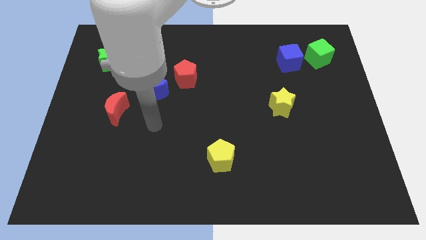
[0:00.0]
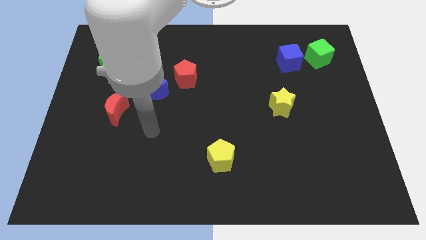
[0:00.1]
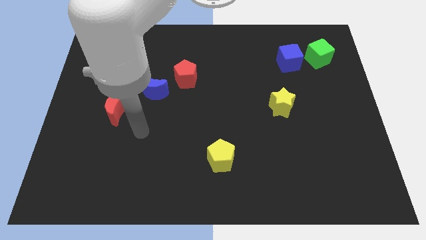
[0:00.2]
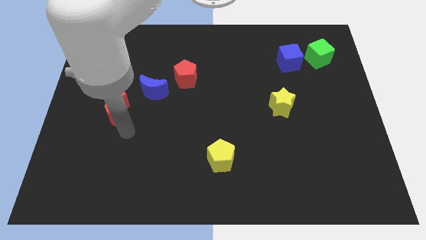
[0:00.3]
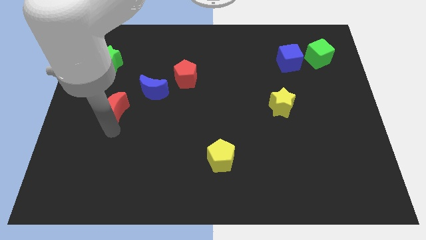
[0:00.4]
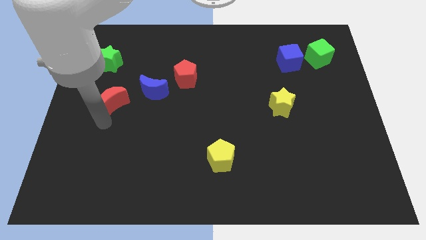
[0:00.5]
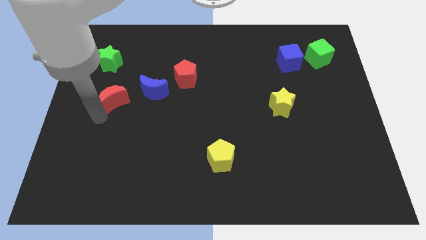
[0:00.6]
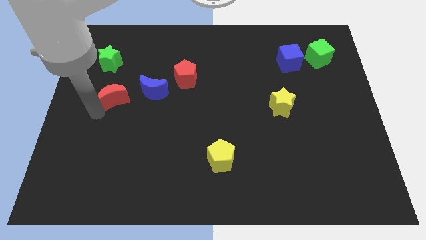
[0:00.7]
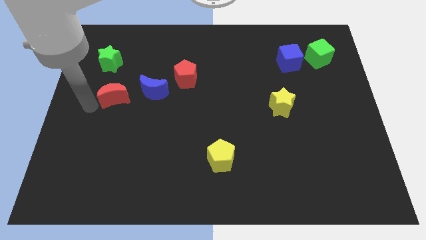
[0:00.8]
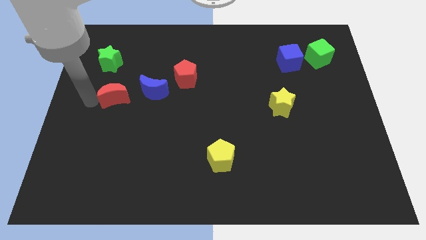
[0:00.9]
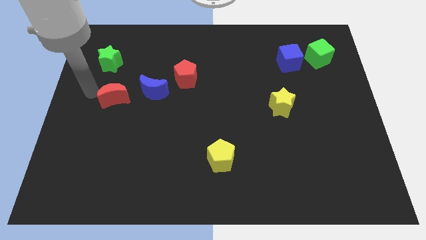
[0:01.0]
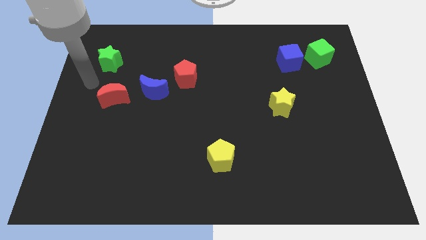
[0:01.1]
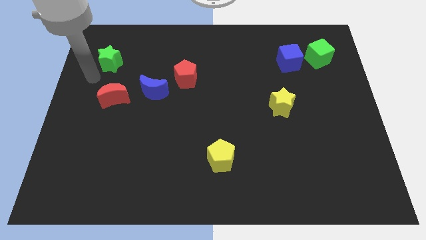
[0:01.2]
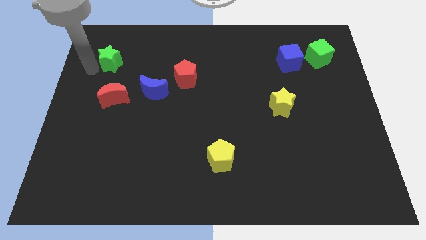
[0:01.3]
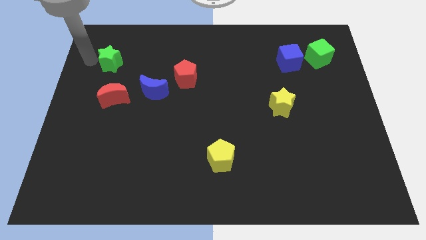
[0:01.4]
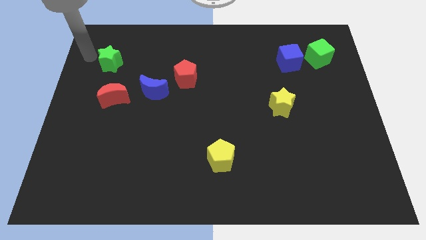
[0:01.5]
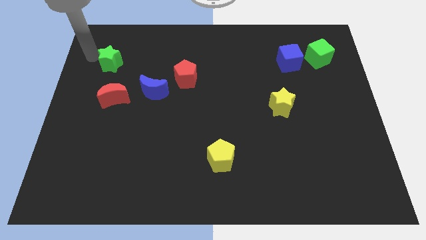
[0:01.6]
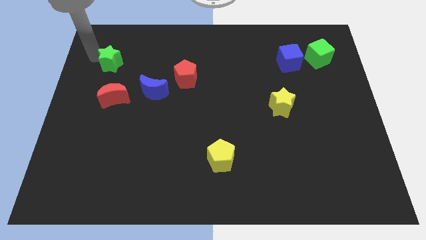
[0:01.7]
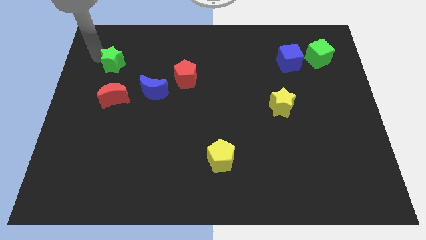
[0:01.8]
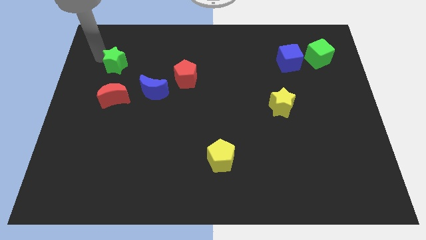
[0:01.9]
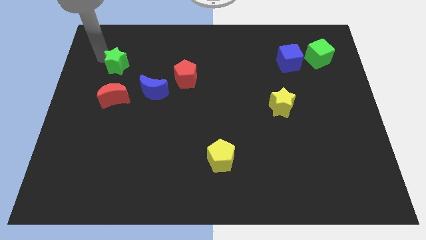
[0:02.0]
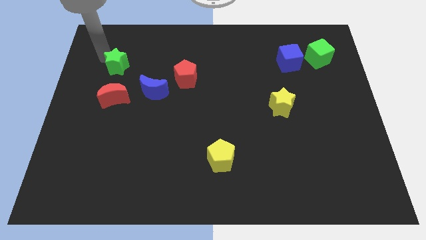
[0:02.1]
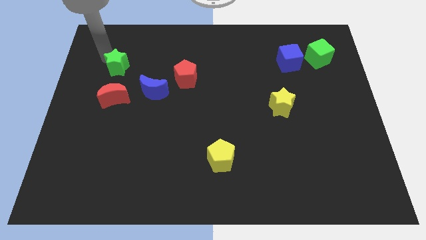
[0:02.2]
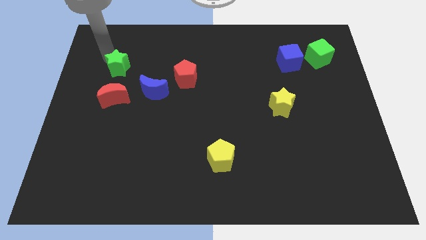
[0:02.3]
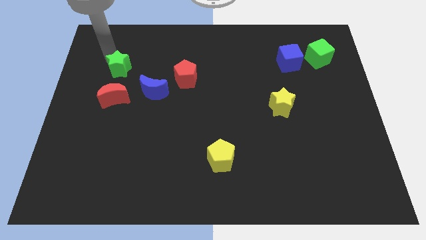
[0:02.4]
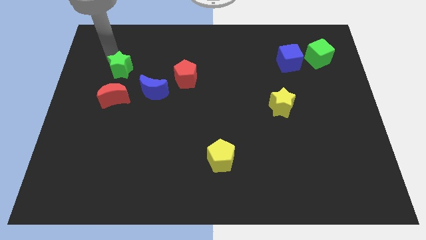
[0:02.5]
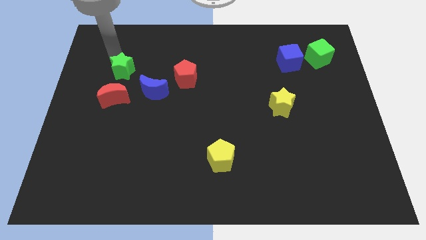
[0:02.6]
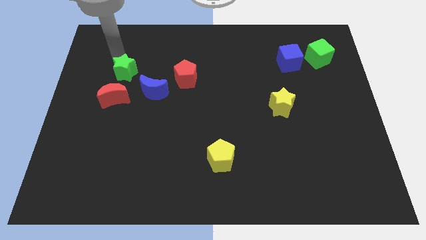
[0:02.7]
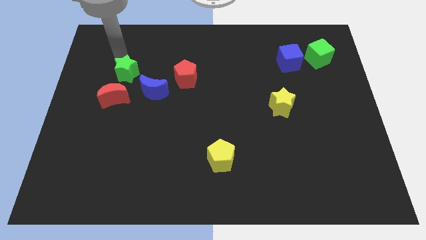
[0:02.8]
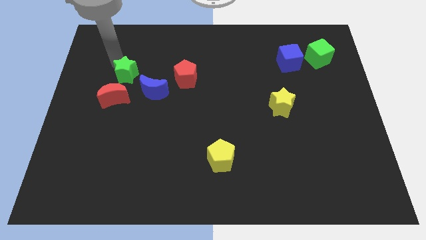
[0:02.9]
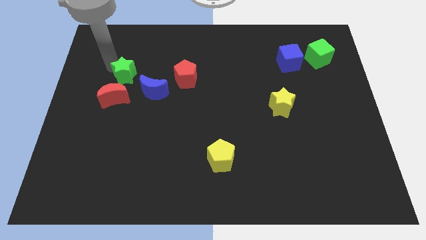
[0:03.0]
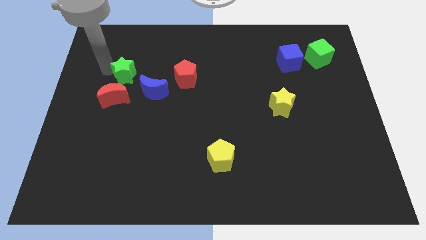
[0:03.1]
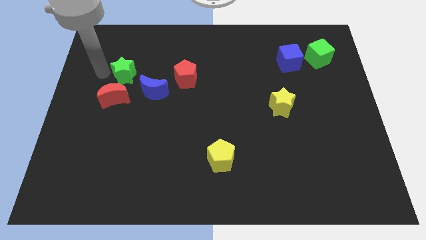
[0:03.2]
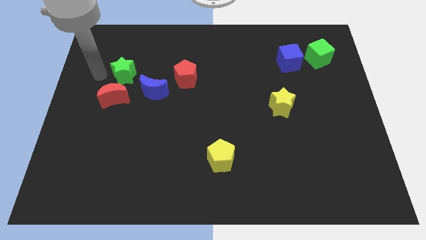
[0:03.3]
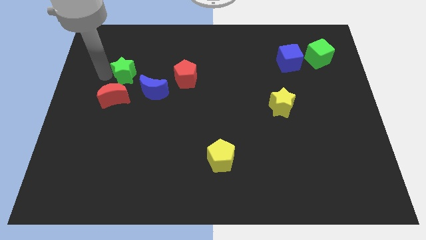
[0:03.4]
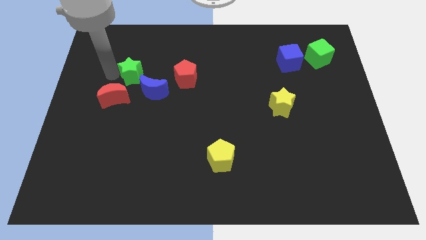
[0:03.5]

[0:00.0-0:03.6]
slightly push the green star down and right

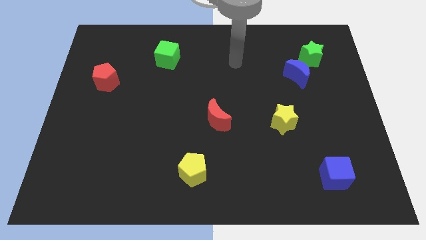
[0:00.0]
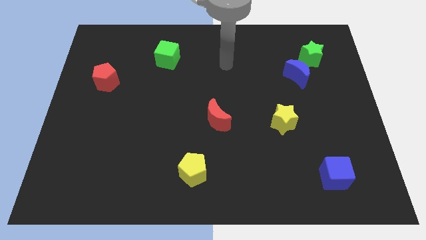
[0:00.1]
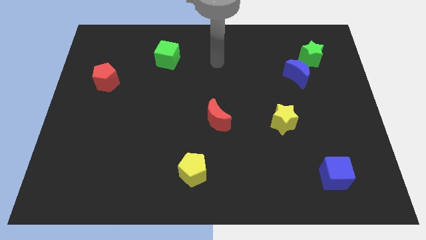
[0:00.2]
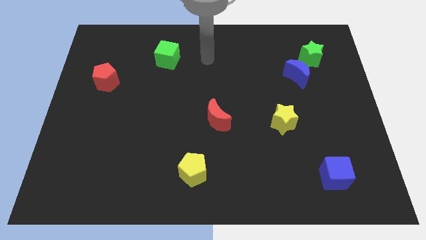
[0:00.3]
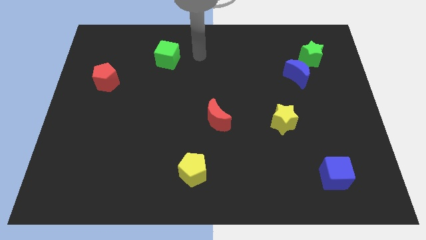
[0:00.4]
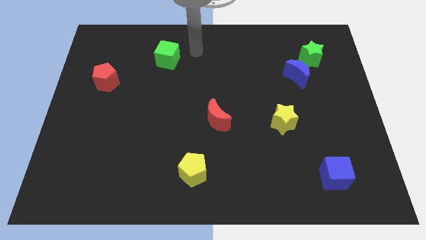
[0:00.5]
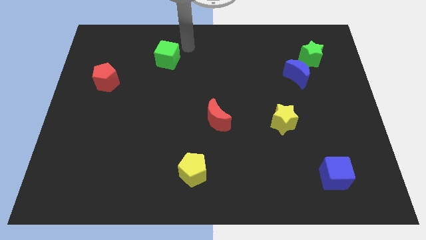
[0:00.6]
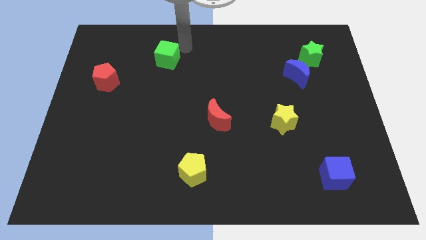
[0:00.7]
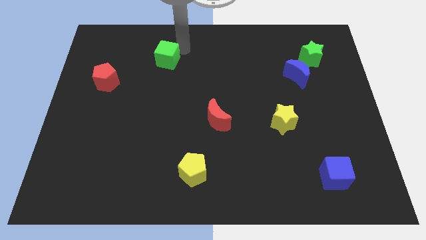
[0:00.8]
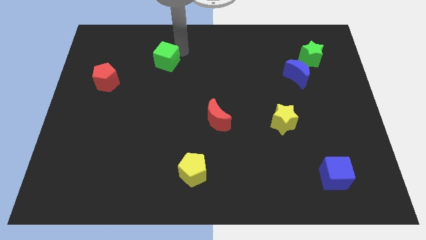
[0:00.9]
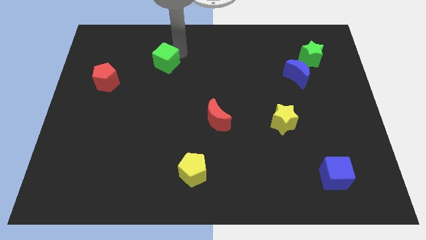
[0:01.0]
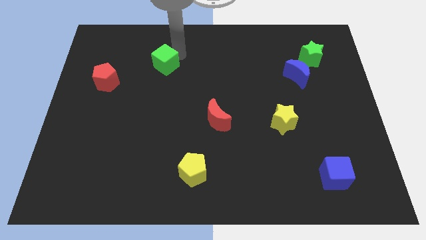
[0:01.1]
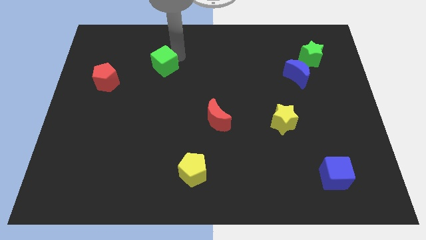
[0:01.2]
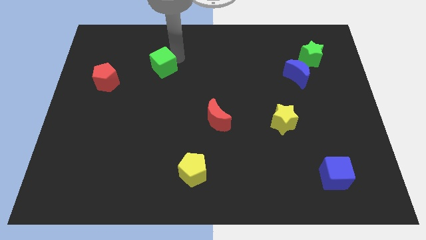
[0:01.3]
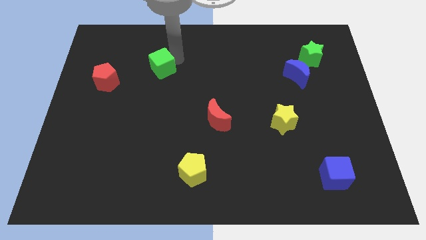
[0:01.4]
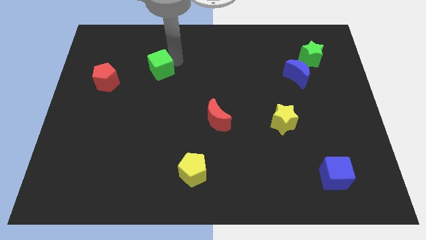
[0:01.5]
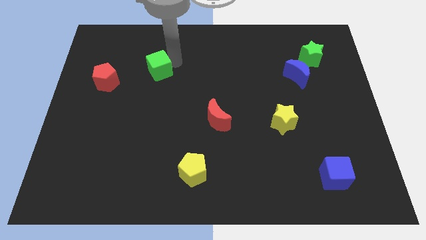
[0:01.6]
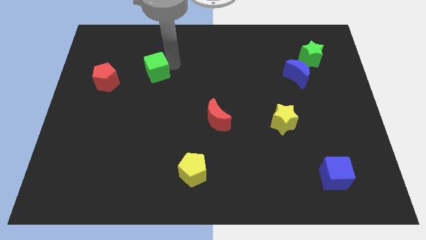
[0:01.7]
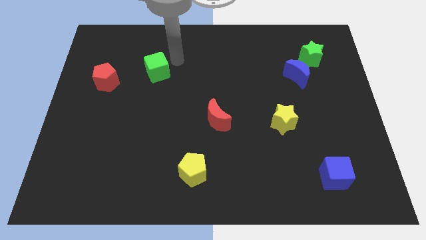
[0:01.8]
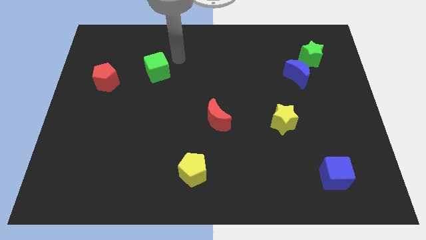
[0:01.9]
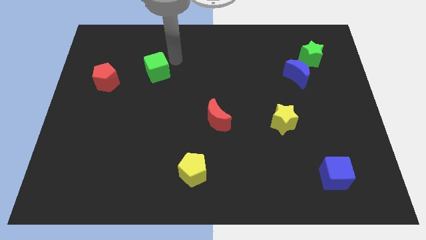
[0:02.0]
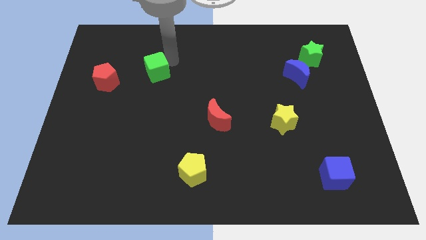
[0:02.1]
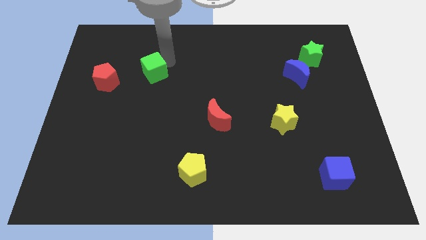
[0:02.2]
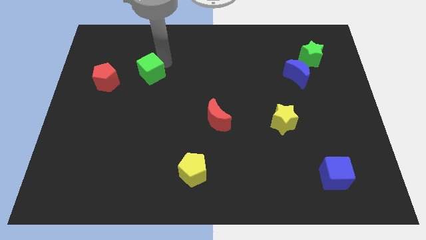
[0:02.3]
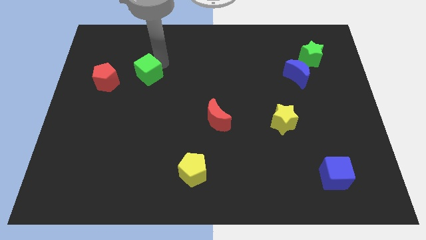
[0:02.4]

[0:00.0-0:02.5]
move the green cube diagonally downwards and to the left a little

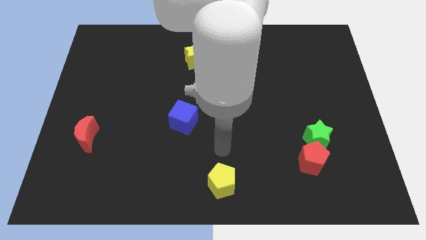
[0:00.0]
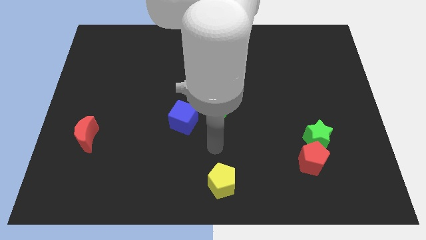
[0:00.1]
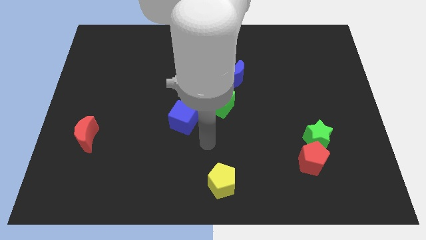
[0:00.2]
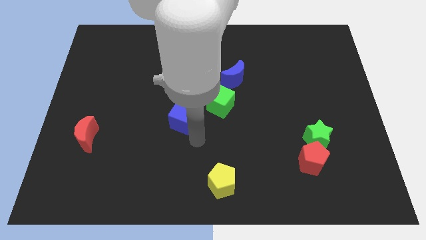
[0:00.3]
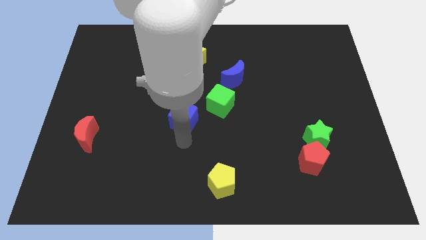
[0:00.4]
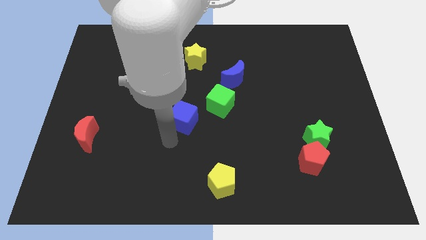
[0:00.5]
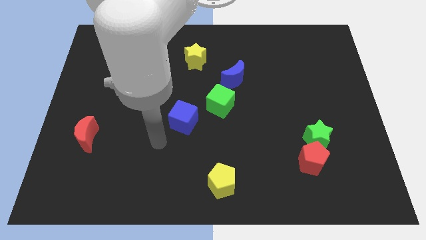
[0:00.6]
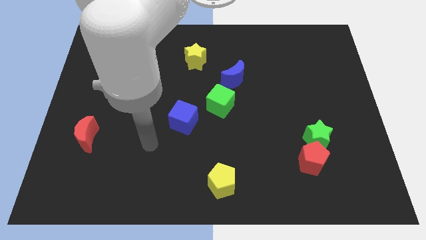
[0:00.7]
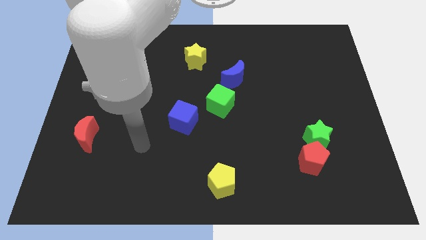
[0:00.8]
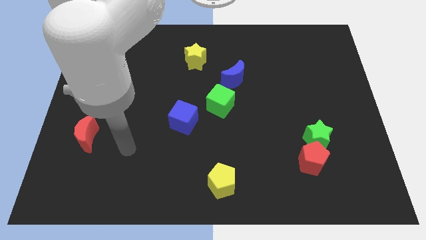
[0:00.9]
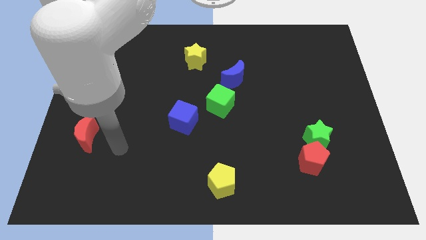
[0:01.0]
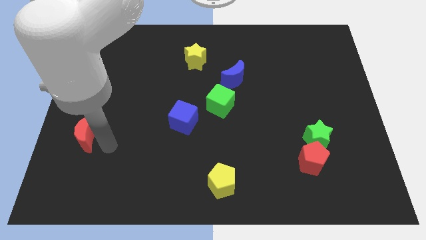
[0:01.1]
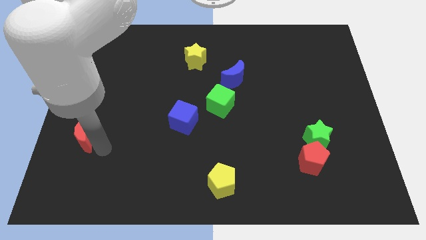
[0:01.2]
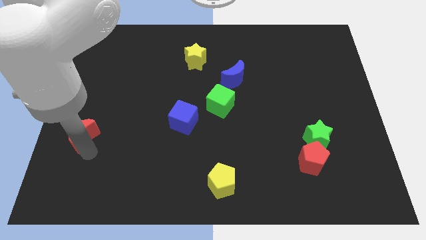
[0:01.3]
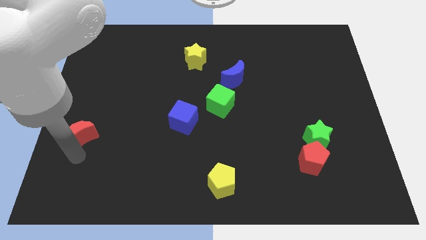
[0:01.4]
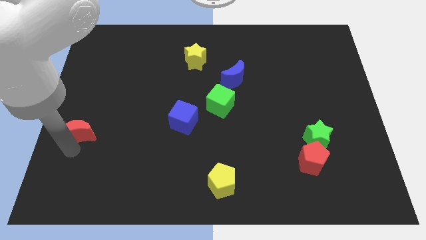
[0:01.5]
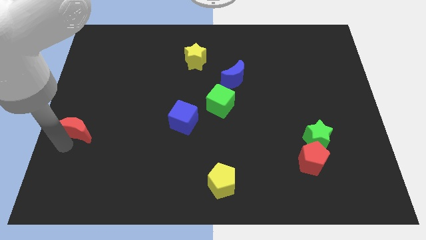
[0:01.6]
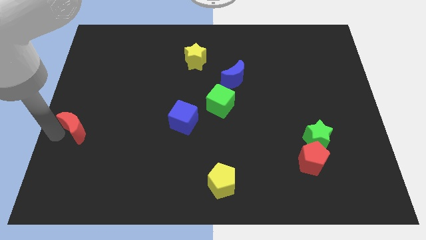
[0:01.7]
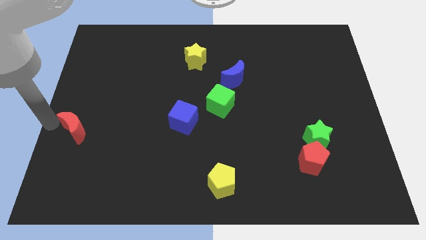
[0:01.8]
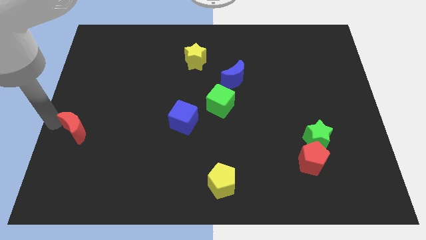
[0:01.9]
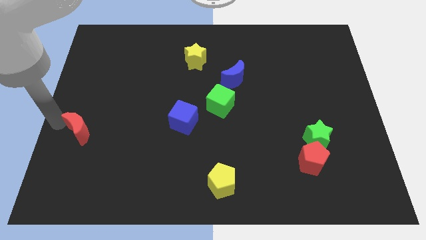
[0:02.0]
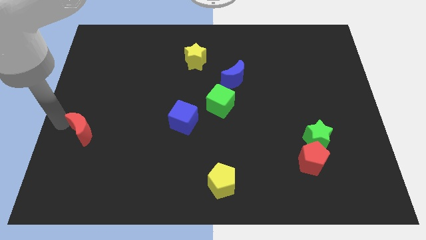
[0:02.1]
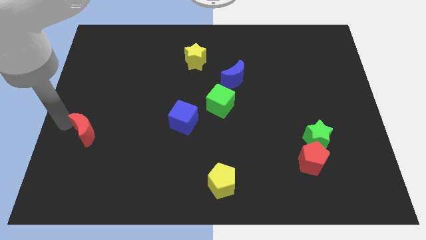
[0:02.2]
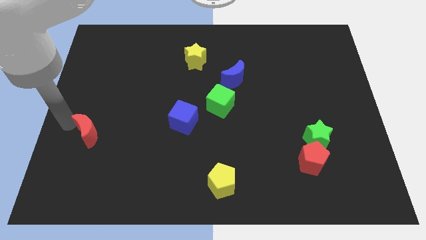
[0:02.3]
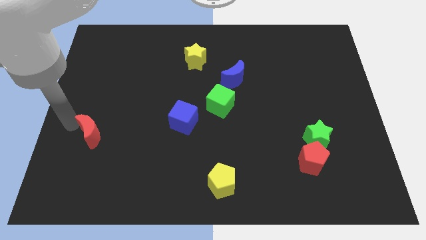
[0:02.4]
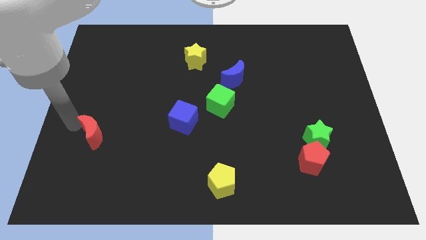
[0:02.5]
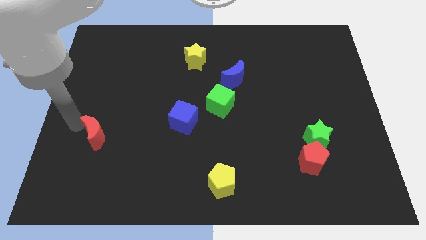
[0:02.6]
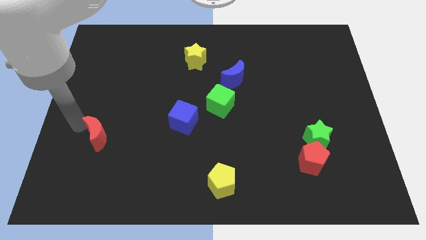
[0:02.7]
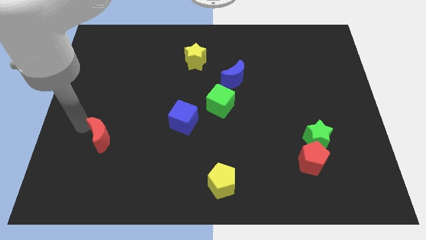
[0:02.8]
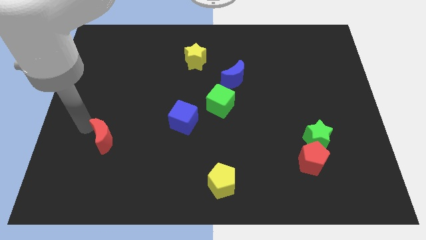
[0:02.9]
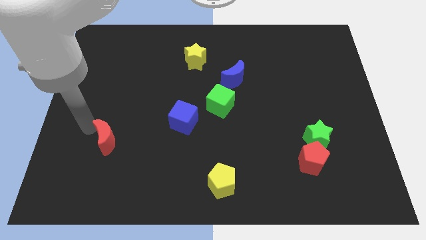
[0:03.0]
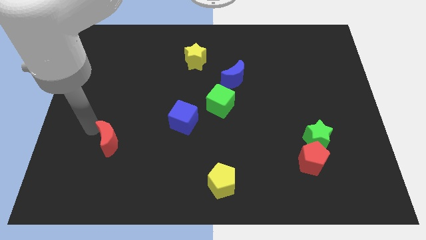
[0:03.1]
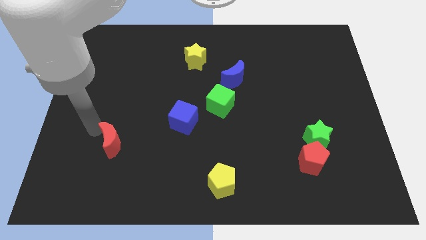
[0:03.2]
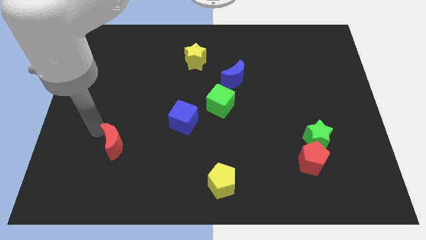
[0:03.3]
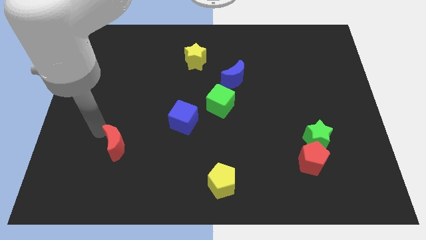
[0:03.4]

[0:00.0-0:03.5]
slide the red moon somewhat to the right
